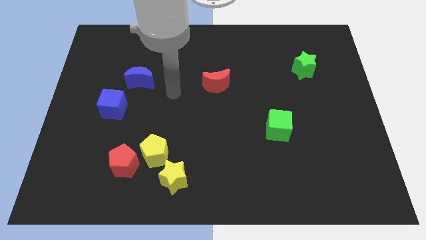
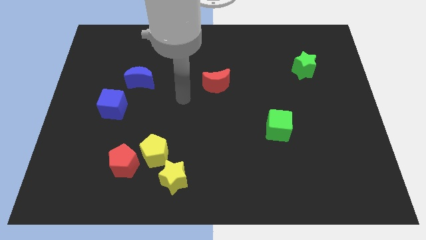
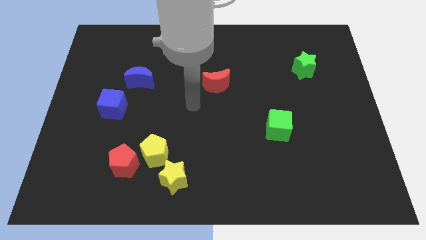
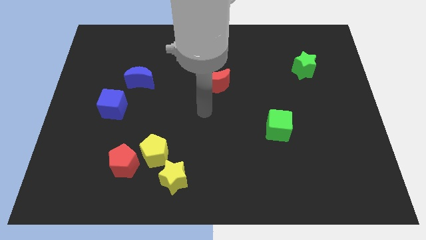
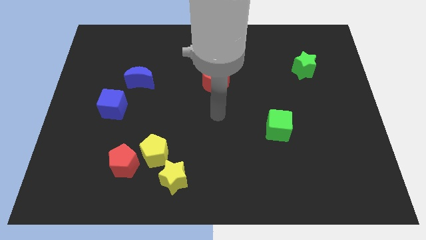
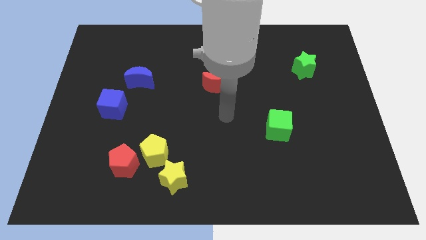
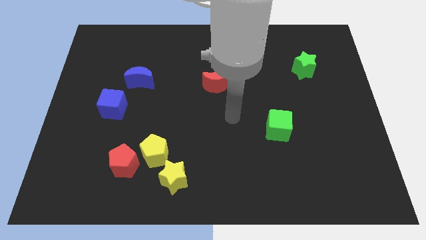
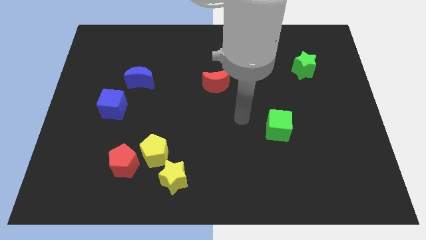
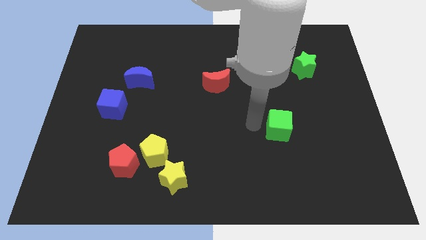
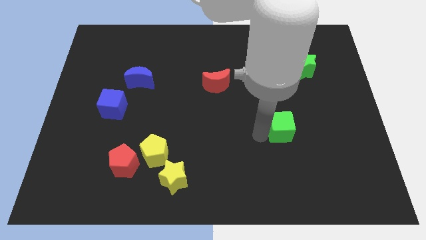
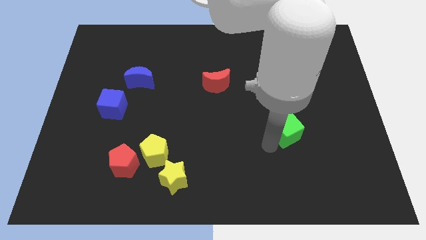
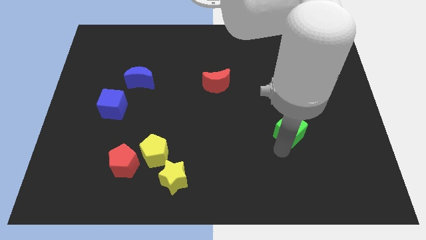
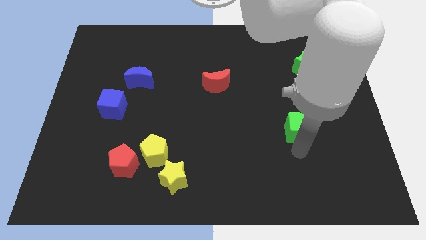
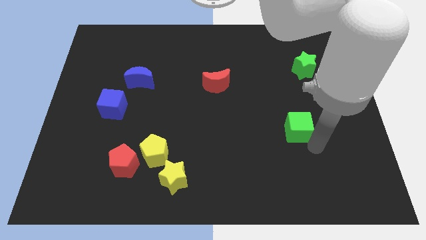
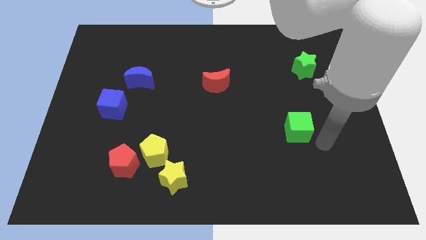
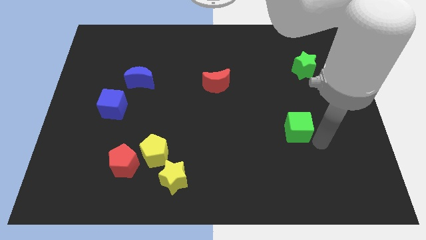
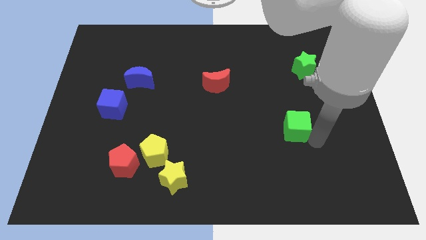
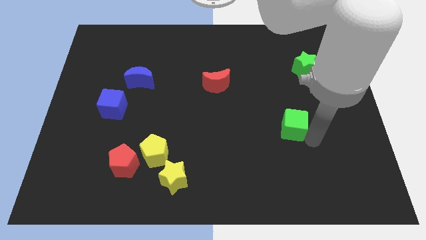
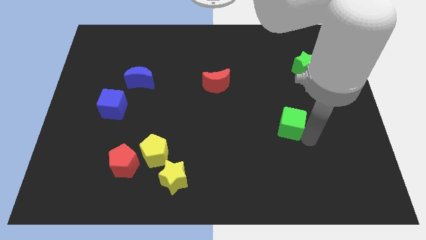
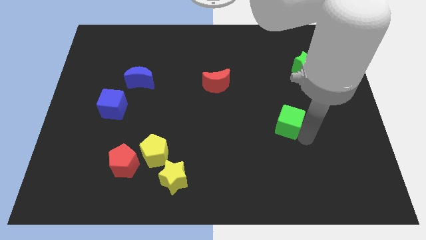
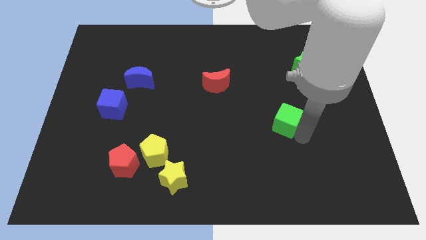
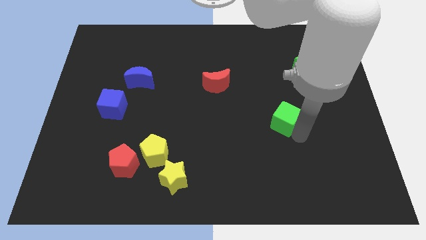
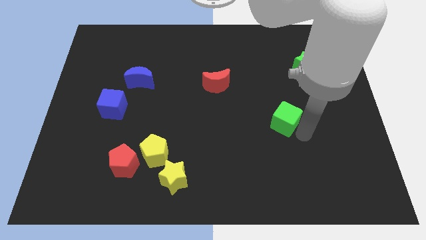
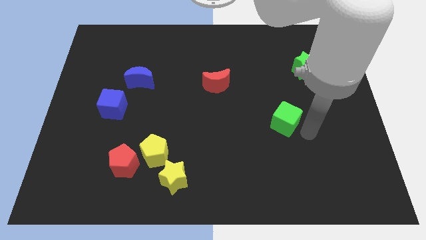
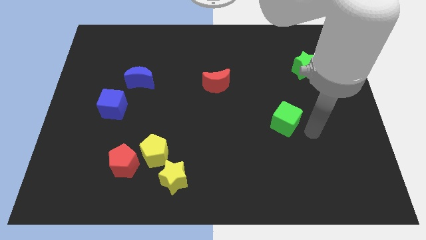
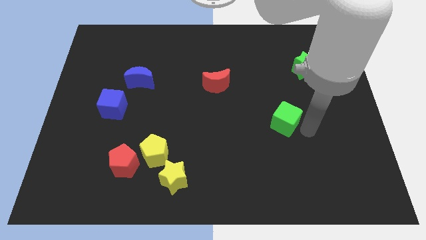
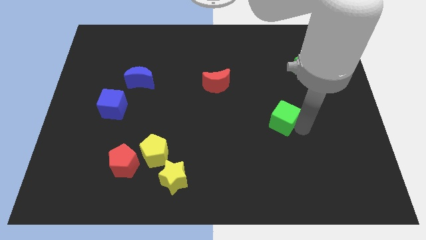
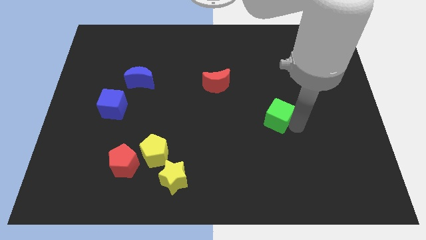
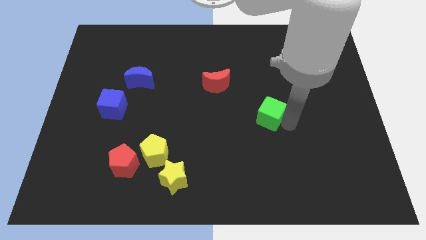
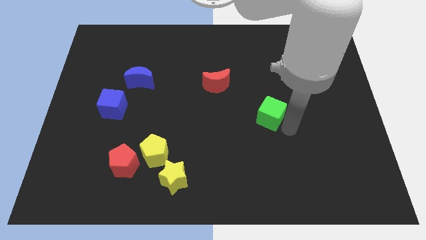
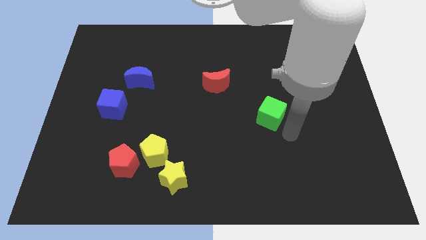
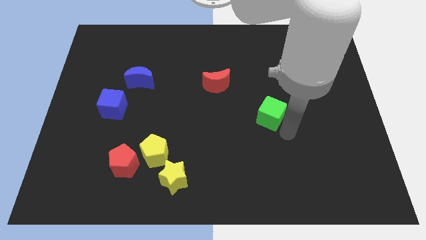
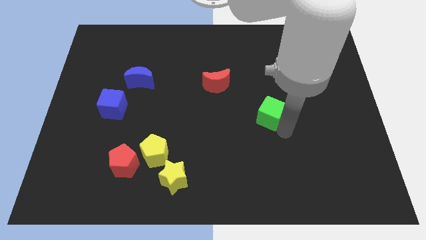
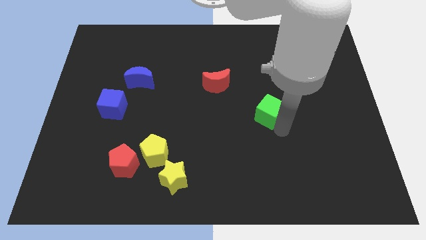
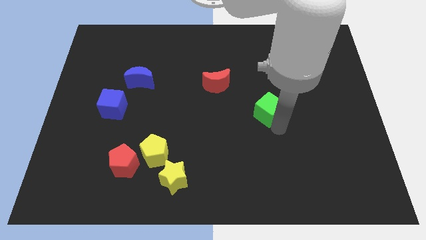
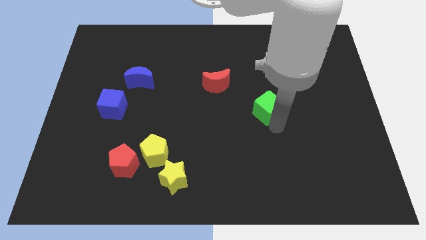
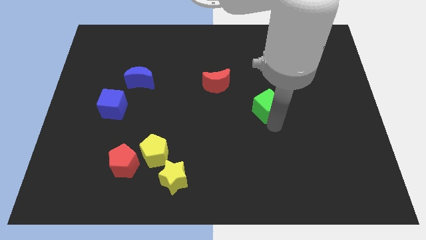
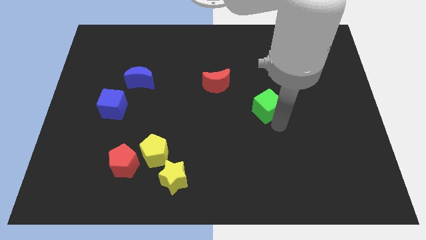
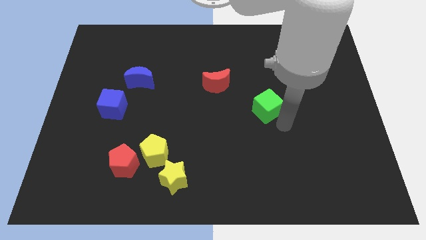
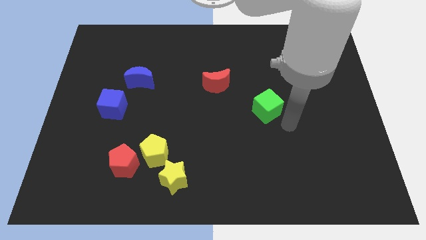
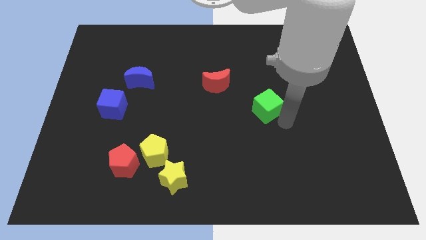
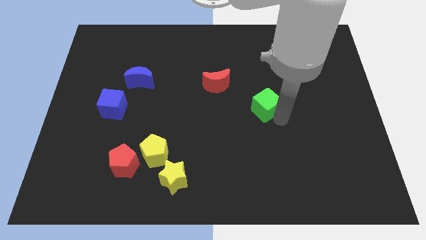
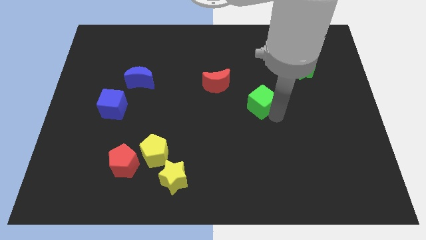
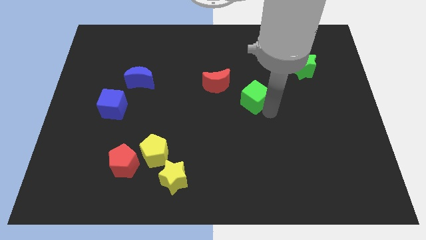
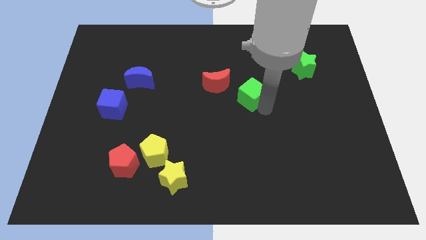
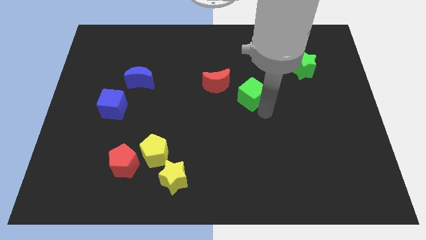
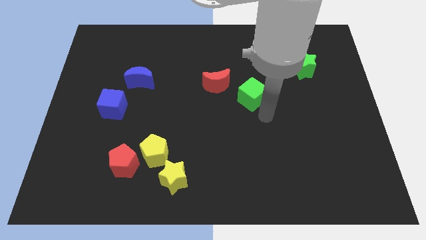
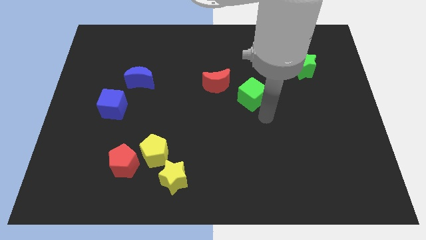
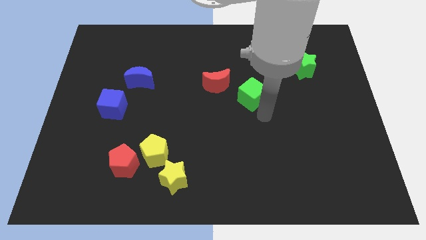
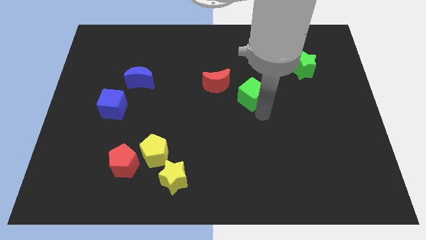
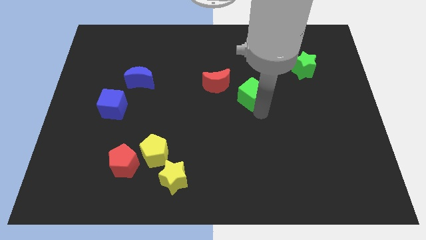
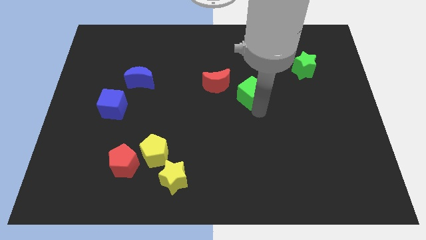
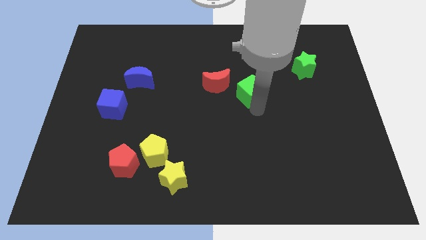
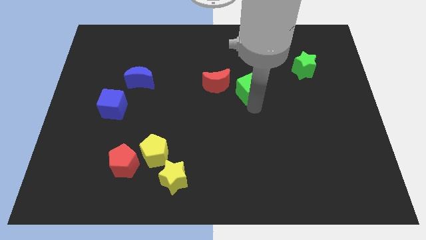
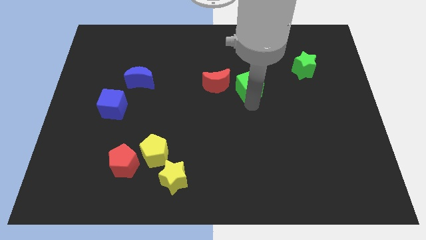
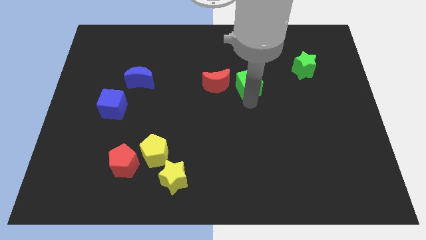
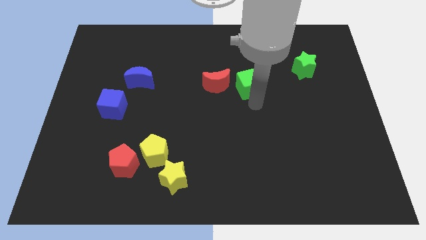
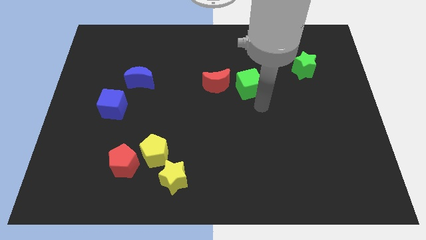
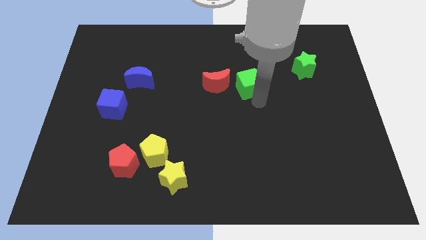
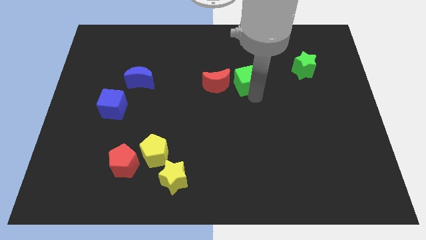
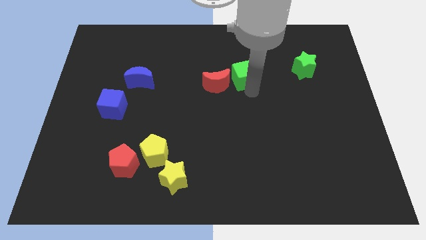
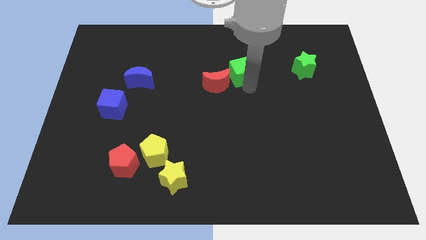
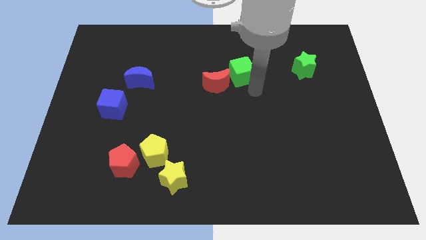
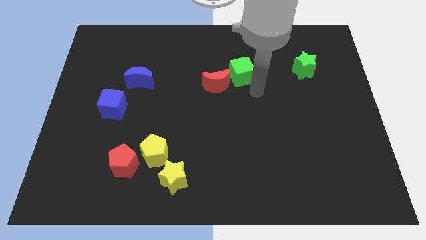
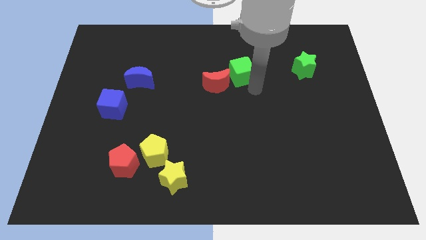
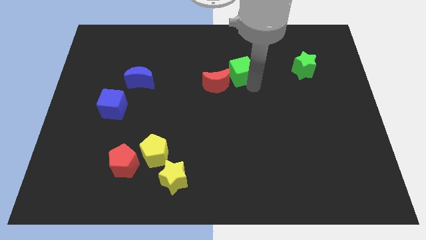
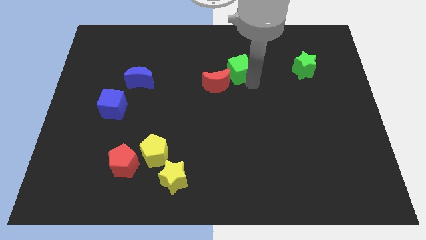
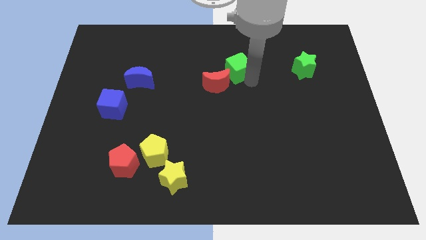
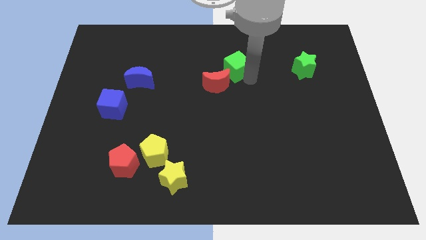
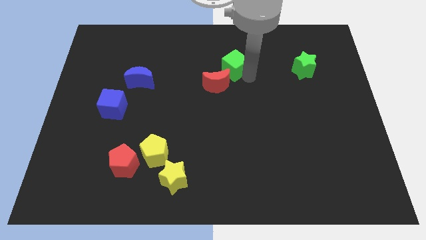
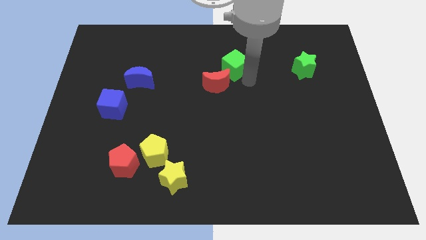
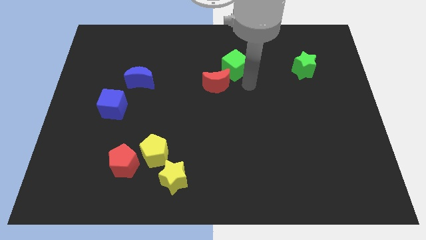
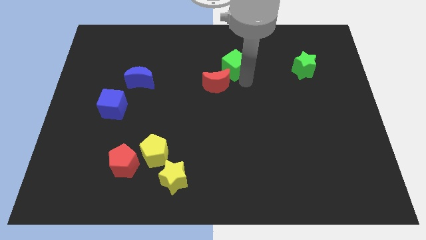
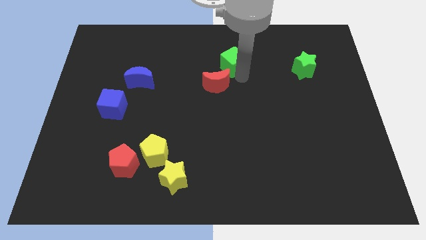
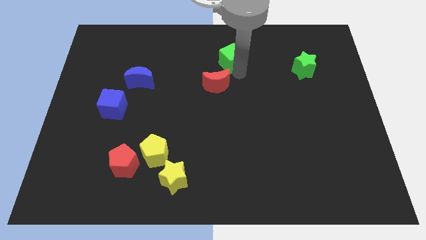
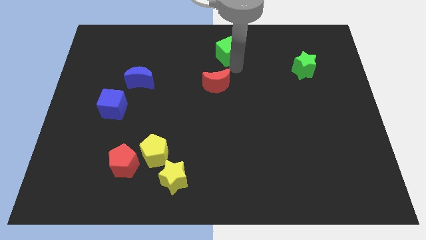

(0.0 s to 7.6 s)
put the green cube to the top
